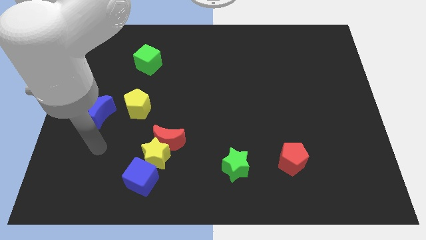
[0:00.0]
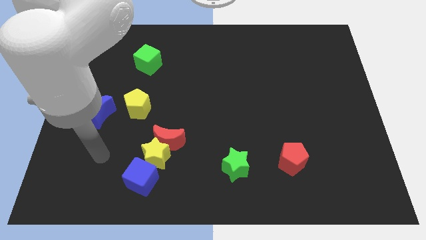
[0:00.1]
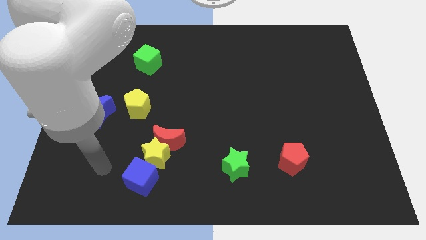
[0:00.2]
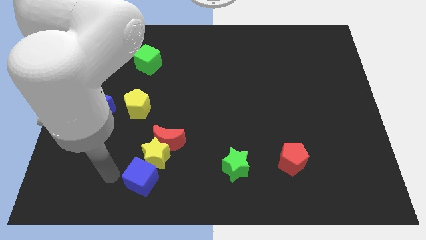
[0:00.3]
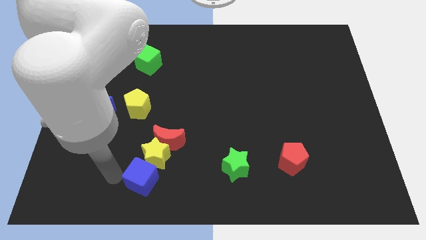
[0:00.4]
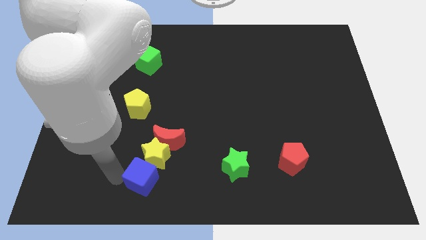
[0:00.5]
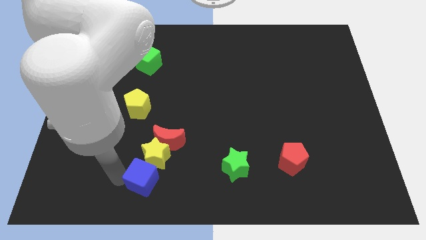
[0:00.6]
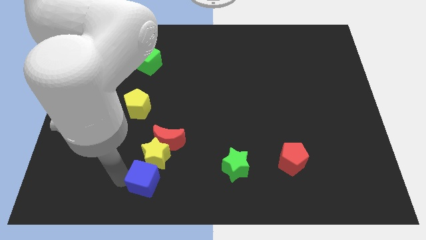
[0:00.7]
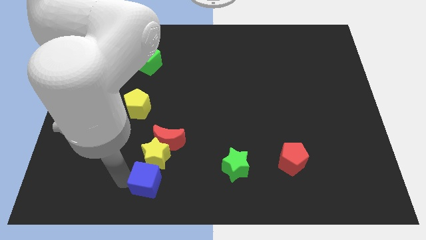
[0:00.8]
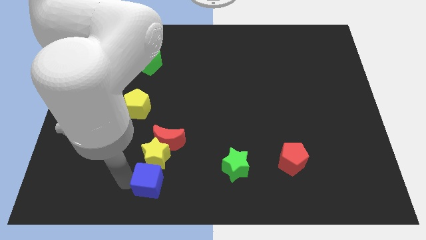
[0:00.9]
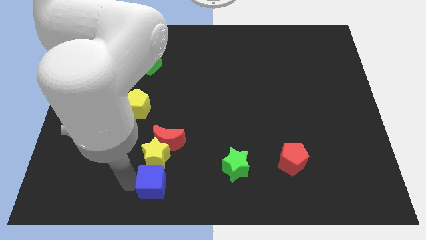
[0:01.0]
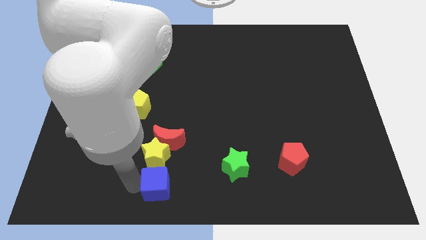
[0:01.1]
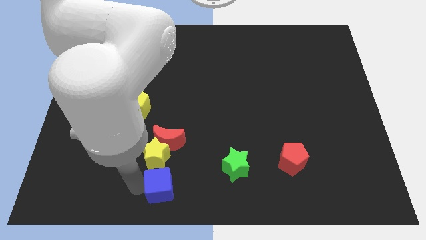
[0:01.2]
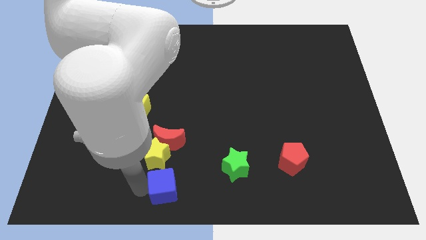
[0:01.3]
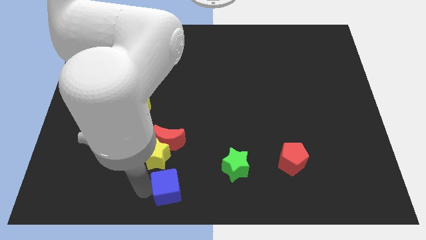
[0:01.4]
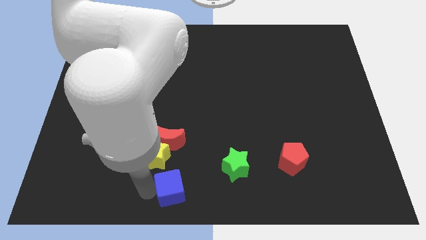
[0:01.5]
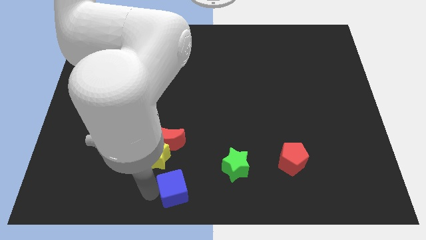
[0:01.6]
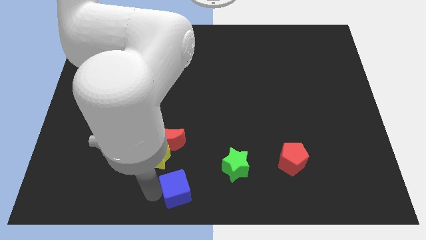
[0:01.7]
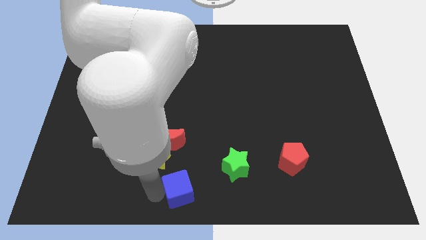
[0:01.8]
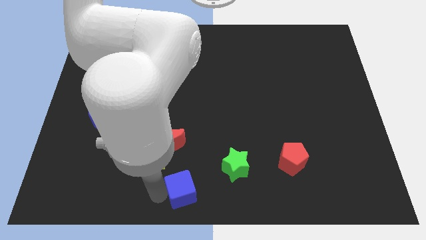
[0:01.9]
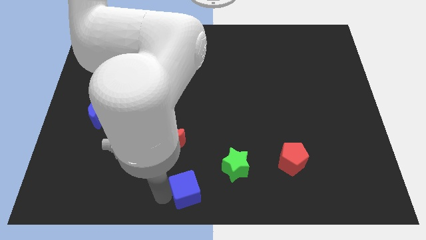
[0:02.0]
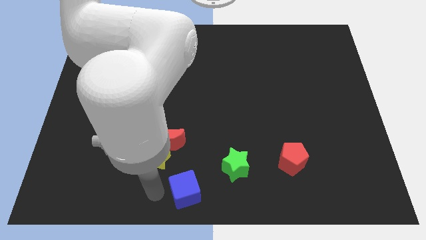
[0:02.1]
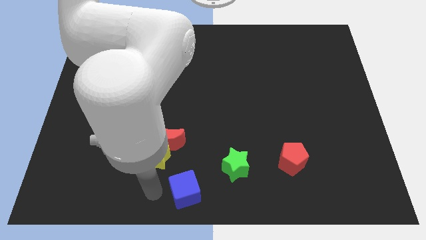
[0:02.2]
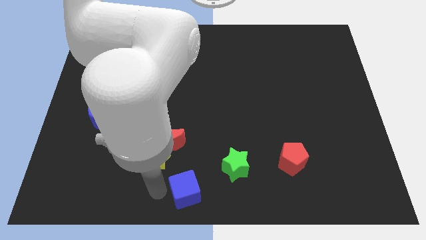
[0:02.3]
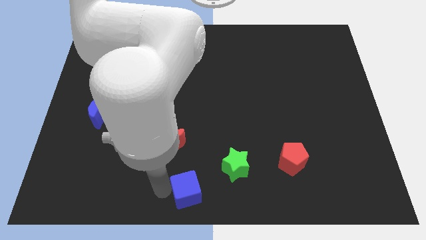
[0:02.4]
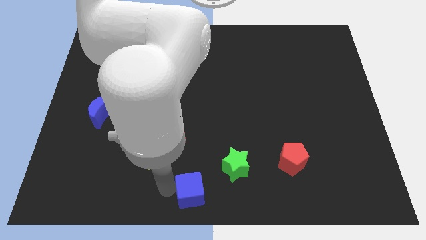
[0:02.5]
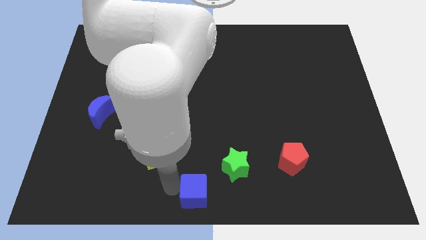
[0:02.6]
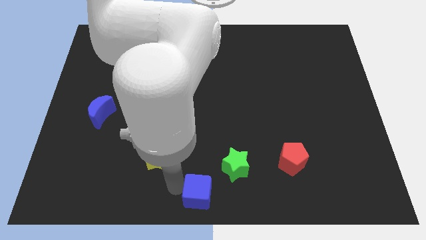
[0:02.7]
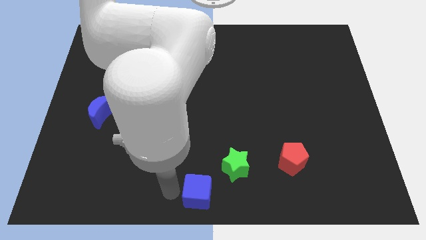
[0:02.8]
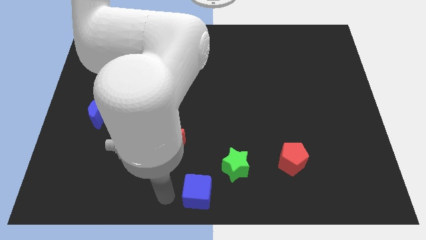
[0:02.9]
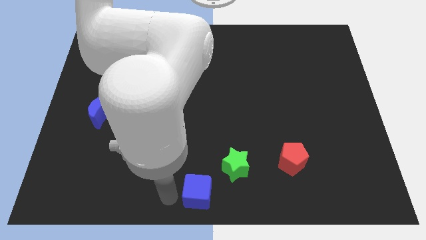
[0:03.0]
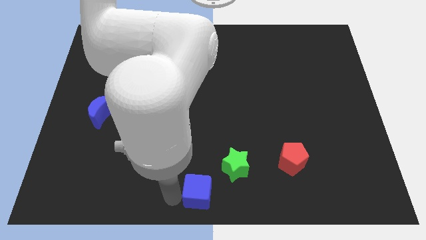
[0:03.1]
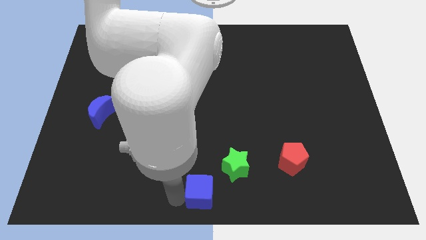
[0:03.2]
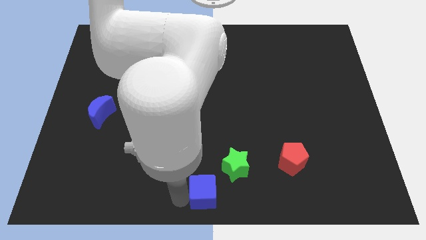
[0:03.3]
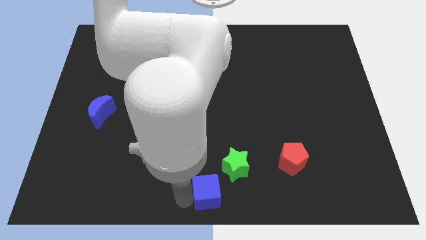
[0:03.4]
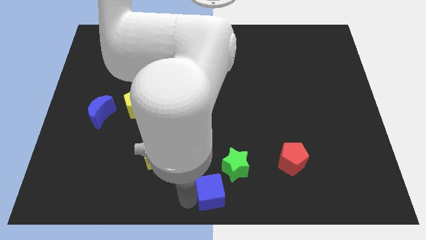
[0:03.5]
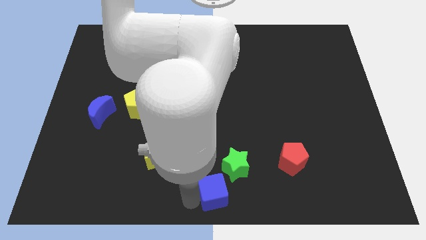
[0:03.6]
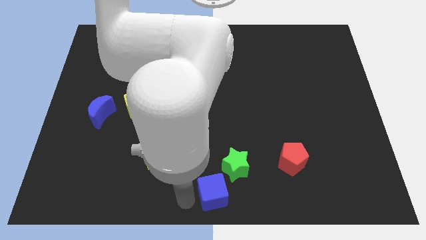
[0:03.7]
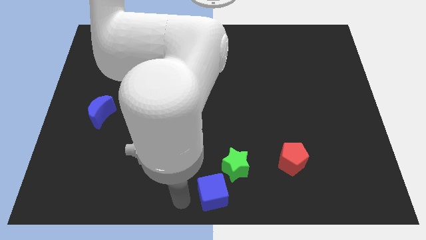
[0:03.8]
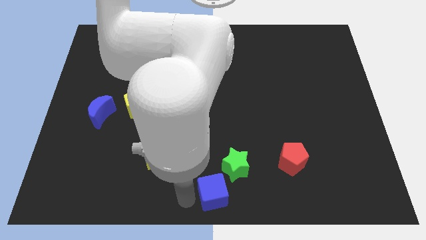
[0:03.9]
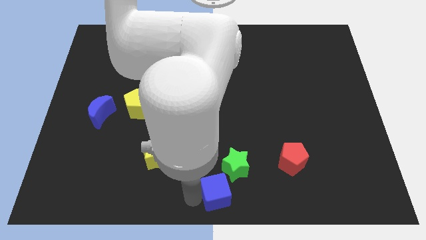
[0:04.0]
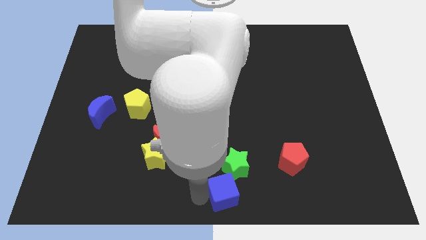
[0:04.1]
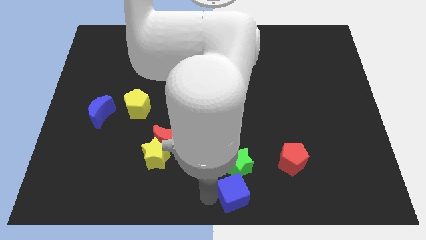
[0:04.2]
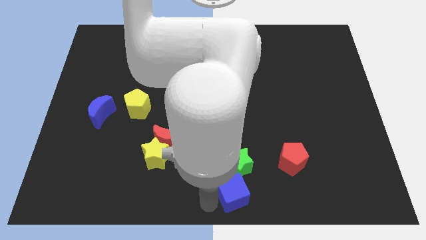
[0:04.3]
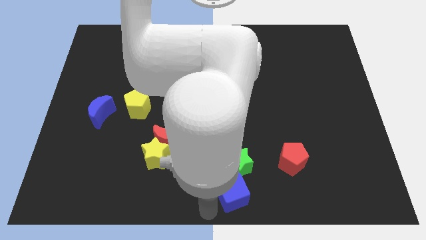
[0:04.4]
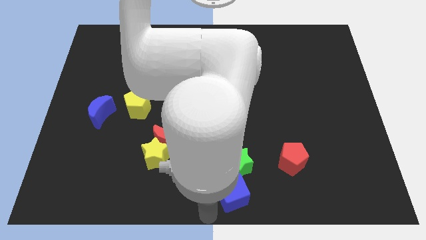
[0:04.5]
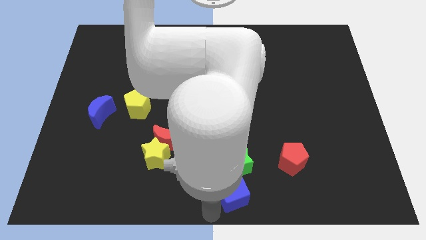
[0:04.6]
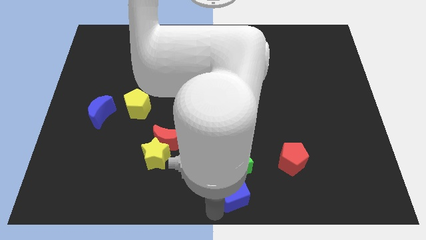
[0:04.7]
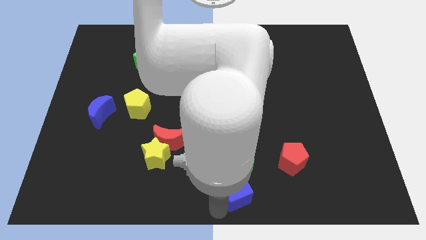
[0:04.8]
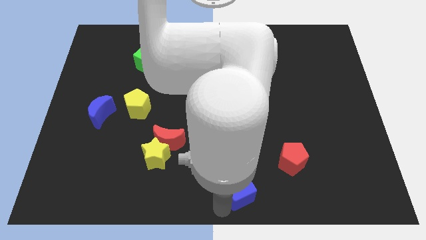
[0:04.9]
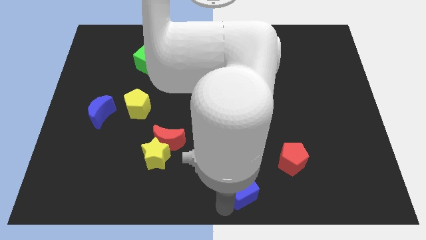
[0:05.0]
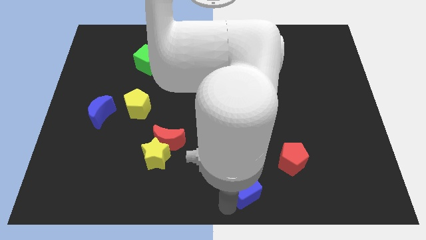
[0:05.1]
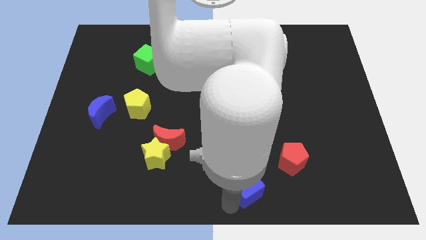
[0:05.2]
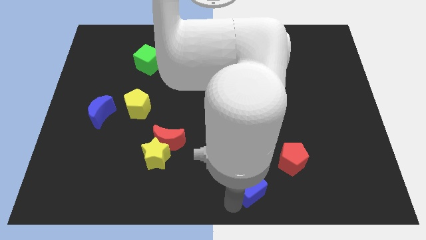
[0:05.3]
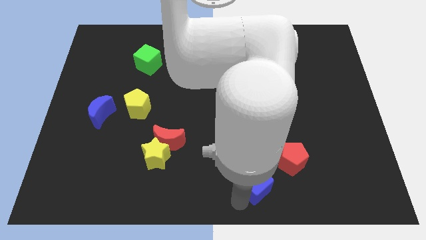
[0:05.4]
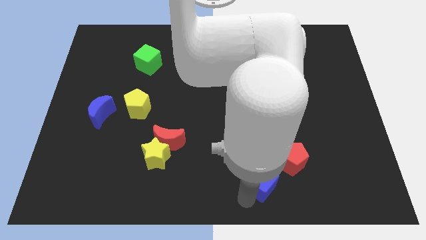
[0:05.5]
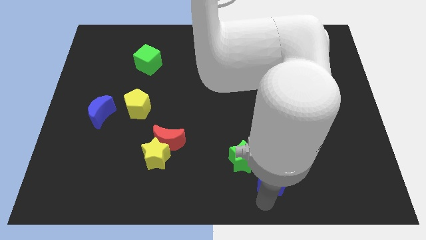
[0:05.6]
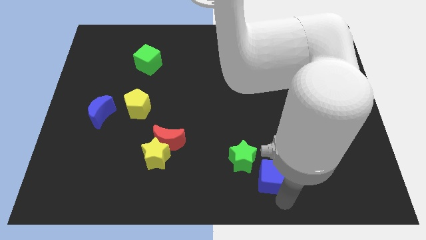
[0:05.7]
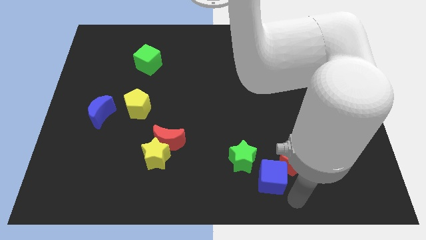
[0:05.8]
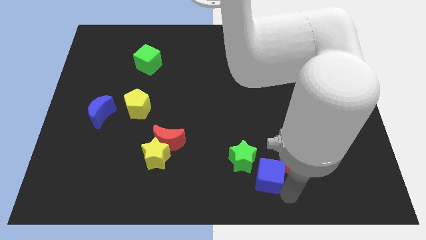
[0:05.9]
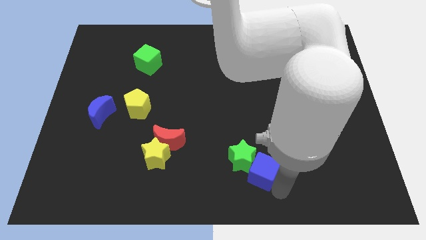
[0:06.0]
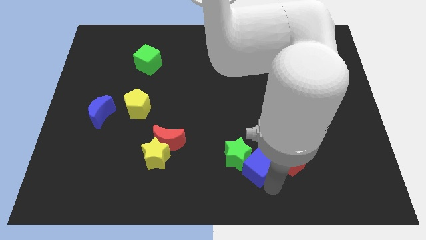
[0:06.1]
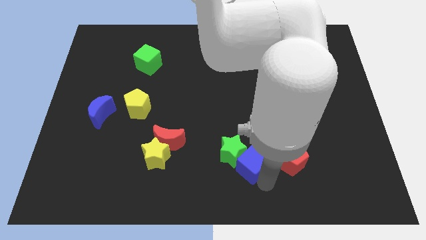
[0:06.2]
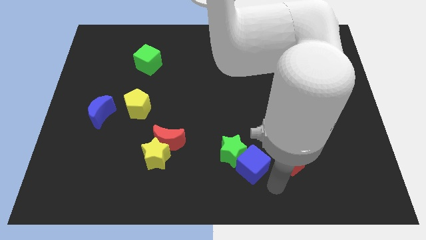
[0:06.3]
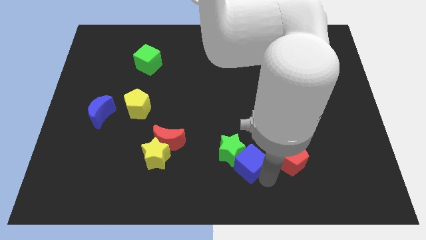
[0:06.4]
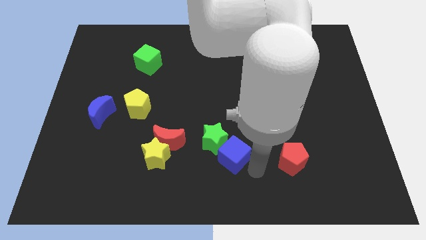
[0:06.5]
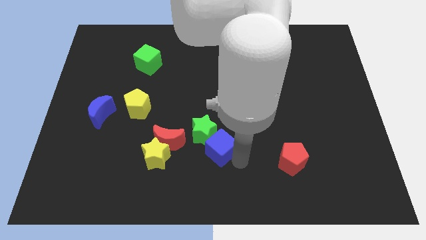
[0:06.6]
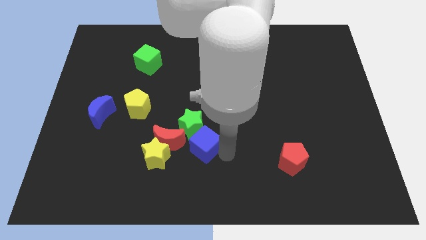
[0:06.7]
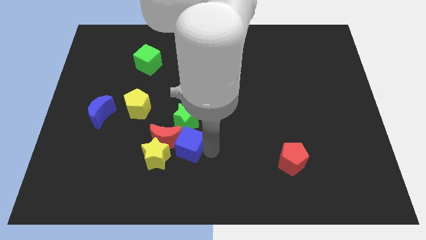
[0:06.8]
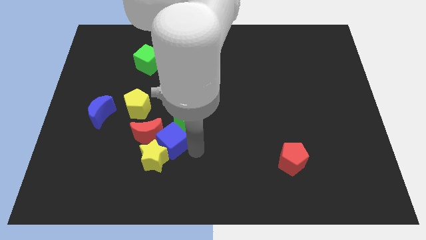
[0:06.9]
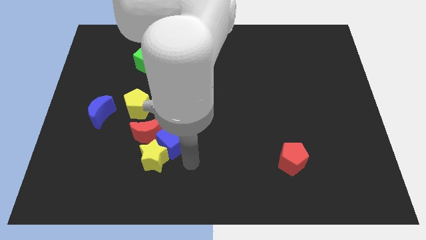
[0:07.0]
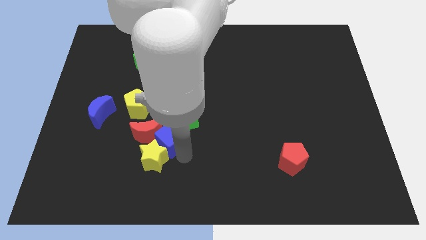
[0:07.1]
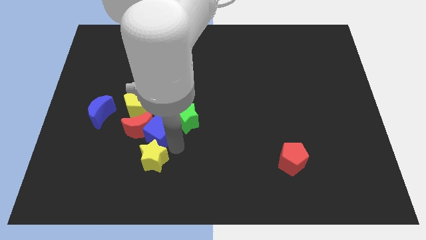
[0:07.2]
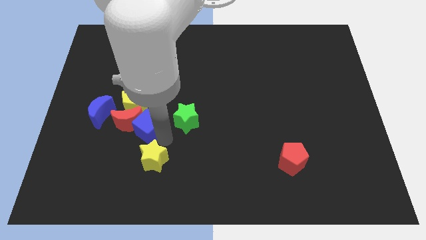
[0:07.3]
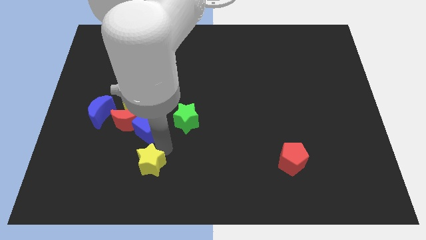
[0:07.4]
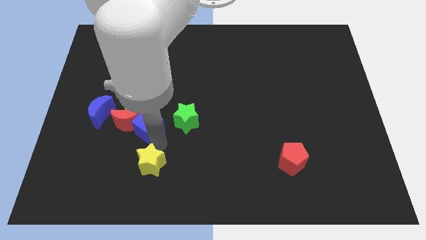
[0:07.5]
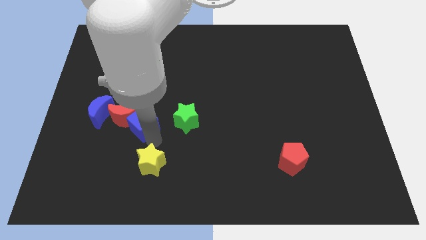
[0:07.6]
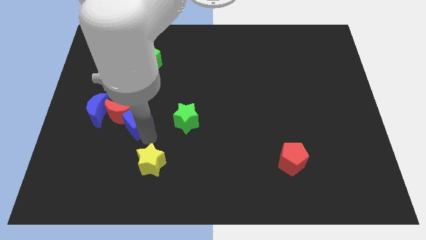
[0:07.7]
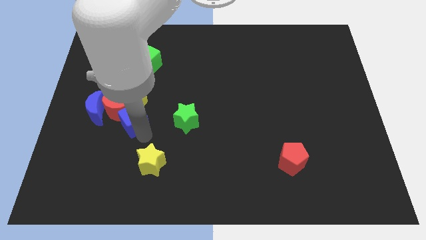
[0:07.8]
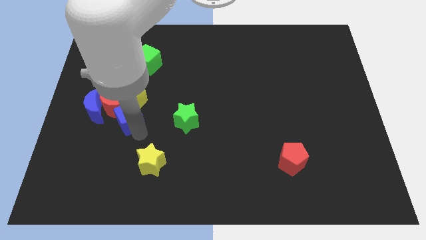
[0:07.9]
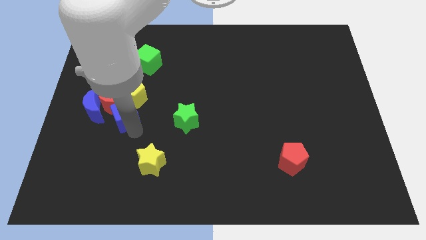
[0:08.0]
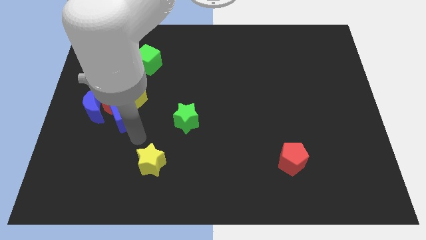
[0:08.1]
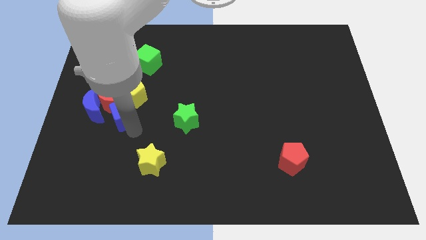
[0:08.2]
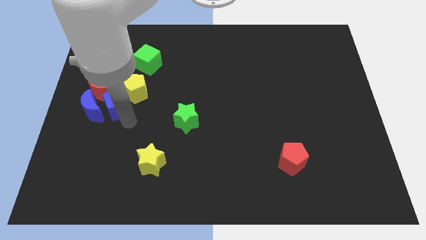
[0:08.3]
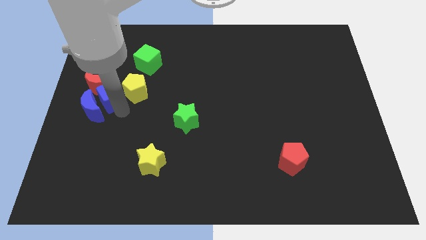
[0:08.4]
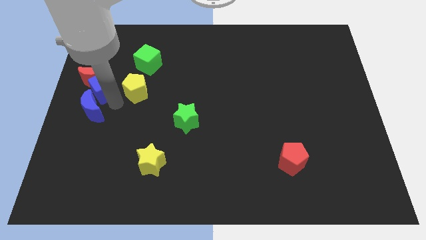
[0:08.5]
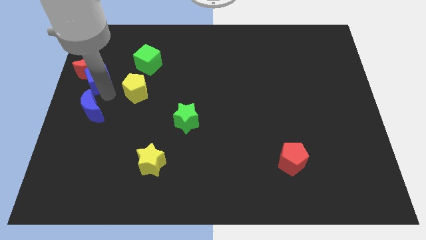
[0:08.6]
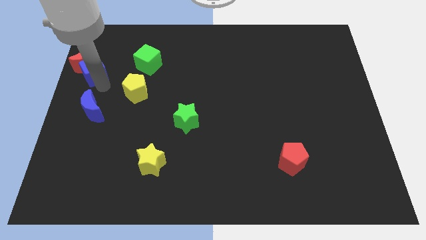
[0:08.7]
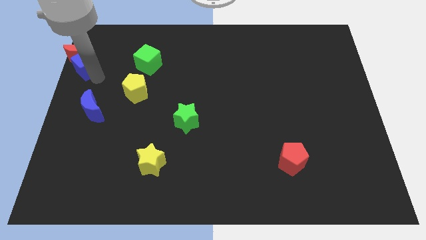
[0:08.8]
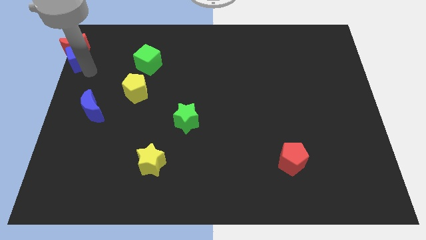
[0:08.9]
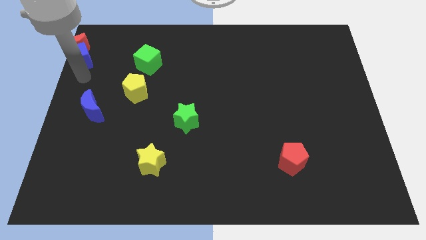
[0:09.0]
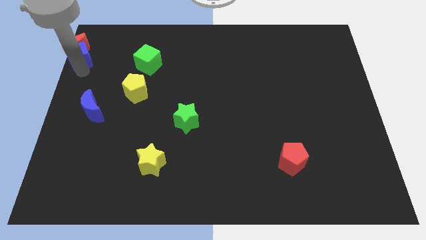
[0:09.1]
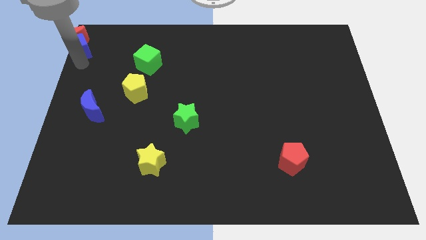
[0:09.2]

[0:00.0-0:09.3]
slide the blue cube to the top left of the board
